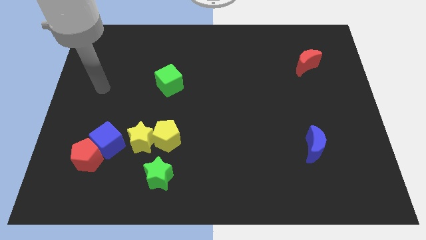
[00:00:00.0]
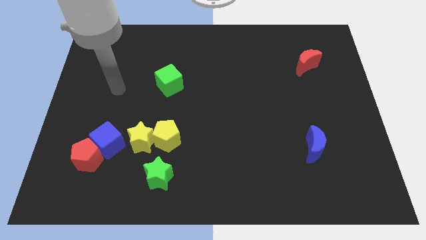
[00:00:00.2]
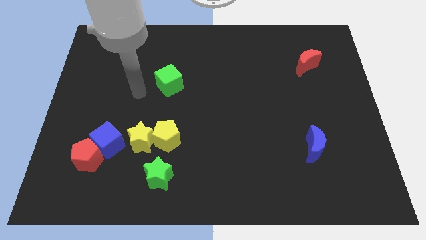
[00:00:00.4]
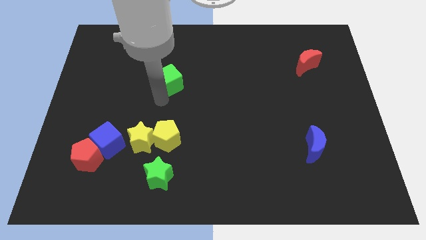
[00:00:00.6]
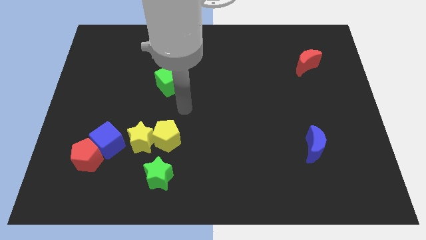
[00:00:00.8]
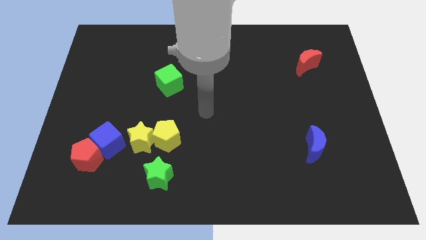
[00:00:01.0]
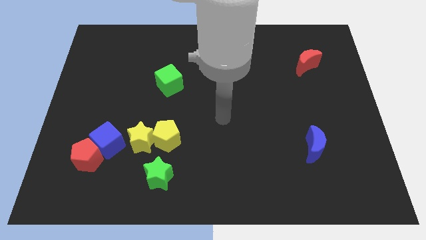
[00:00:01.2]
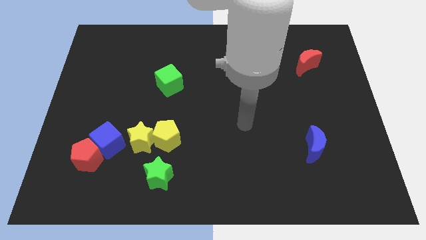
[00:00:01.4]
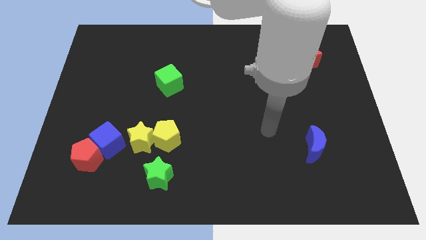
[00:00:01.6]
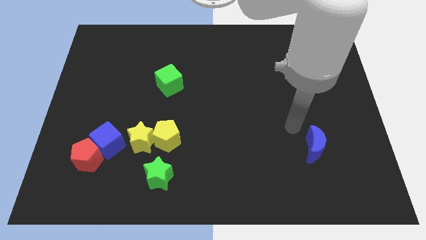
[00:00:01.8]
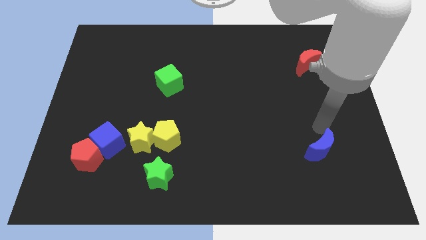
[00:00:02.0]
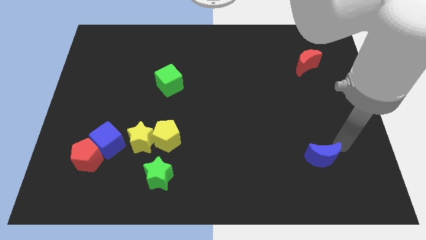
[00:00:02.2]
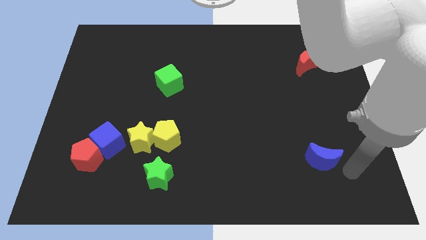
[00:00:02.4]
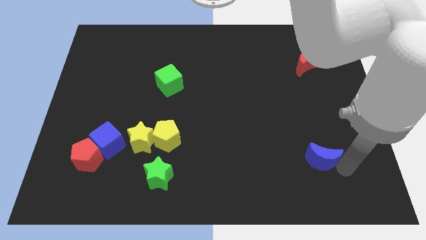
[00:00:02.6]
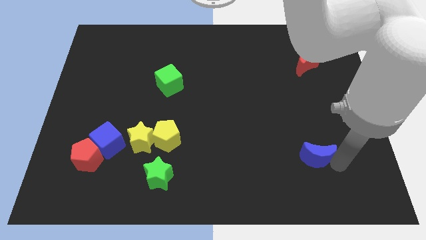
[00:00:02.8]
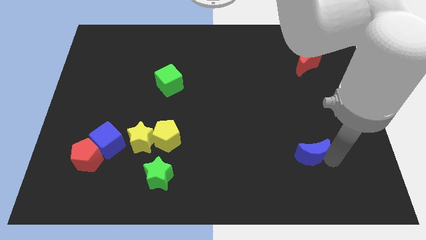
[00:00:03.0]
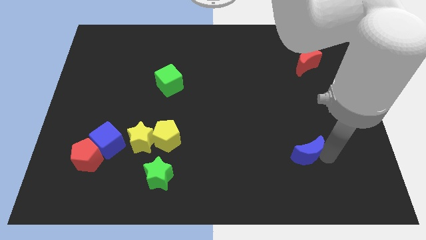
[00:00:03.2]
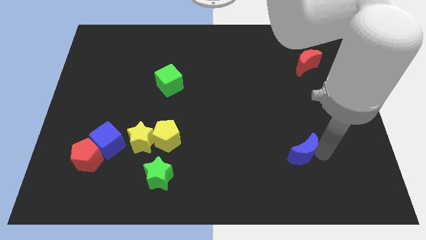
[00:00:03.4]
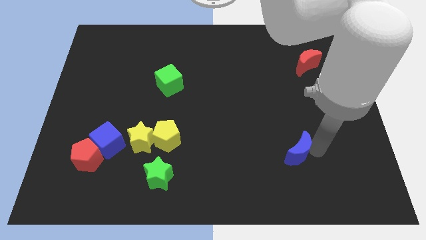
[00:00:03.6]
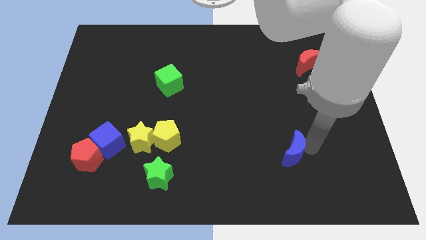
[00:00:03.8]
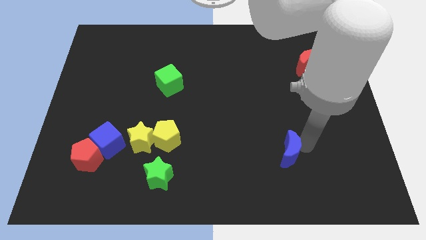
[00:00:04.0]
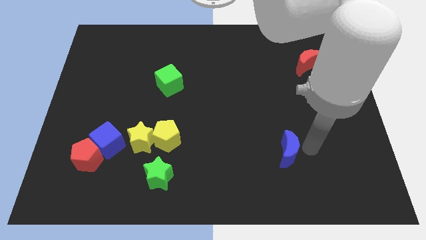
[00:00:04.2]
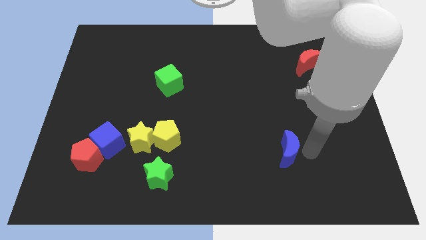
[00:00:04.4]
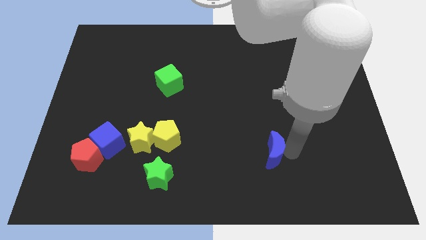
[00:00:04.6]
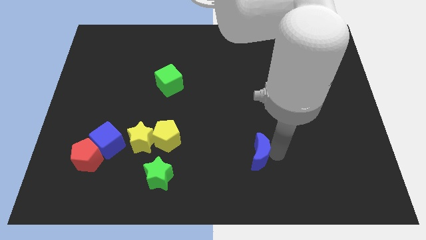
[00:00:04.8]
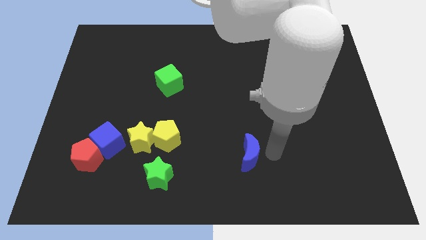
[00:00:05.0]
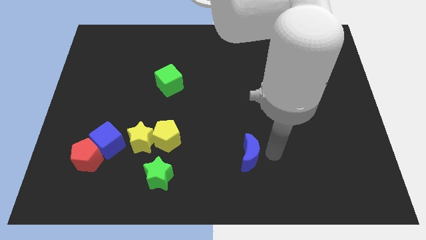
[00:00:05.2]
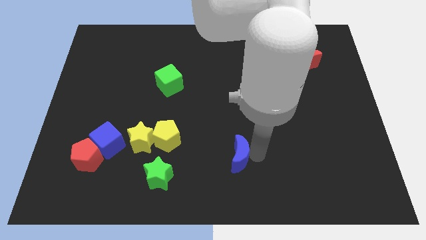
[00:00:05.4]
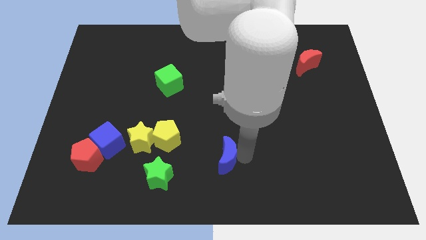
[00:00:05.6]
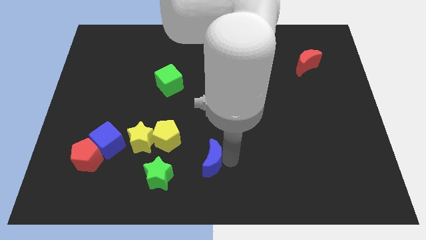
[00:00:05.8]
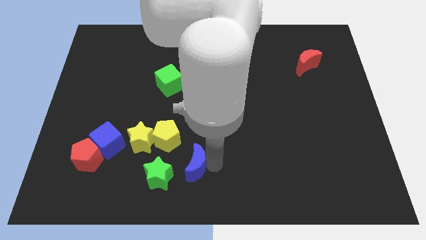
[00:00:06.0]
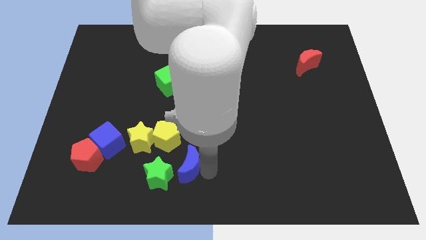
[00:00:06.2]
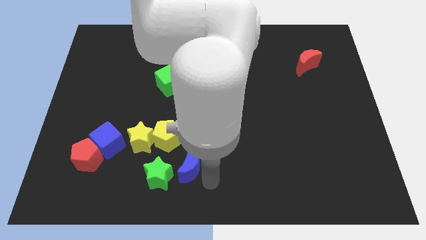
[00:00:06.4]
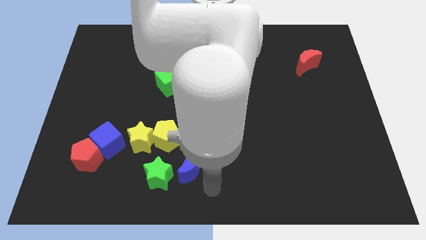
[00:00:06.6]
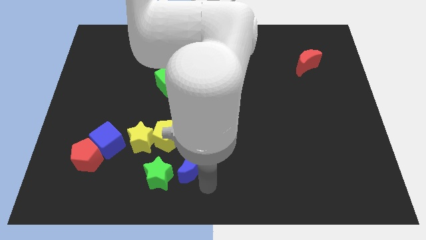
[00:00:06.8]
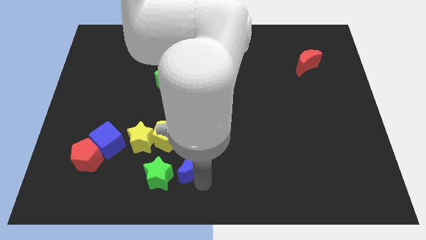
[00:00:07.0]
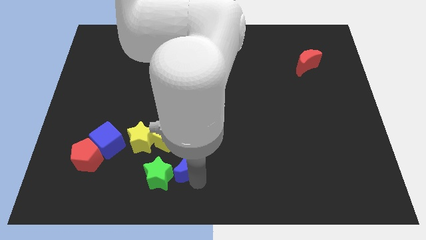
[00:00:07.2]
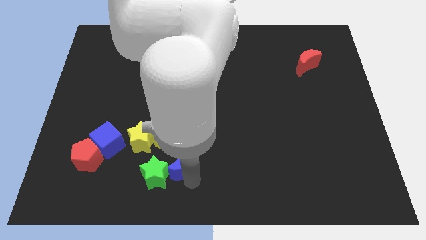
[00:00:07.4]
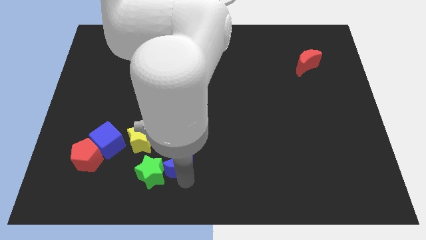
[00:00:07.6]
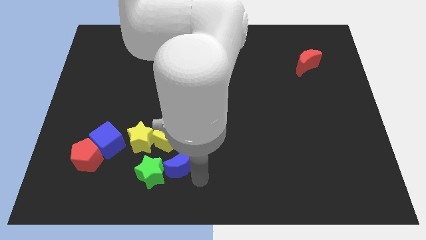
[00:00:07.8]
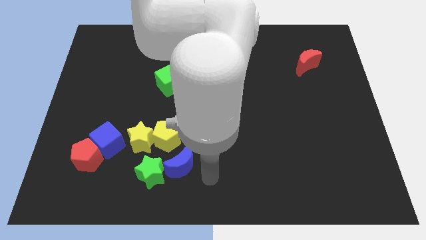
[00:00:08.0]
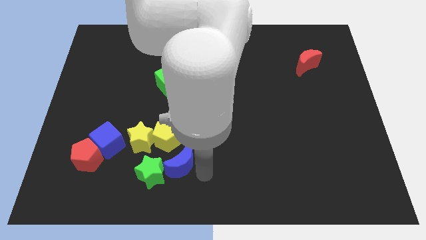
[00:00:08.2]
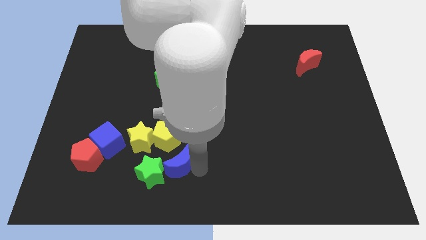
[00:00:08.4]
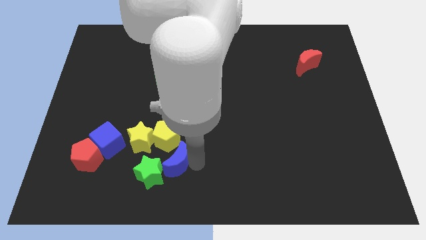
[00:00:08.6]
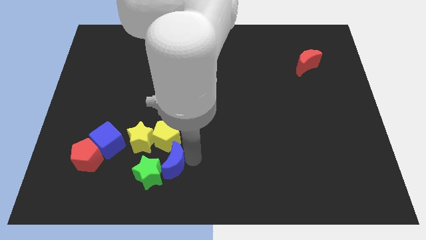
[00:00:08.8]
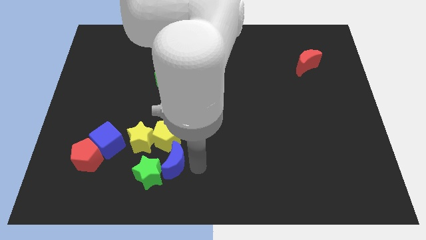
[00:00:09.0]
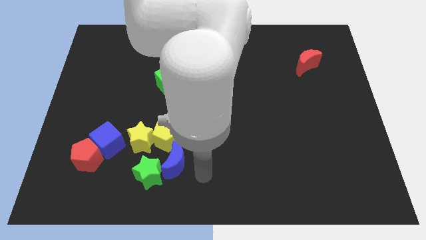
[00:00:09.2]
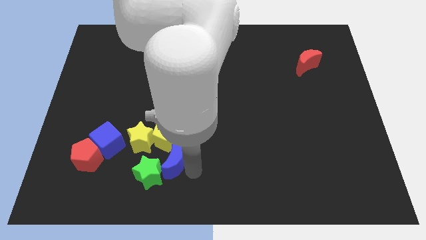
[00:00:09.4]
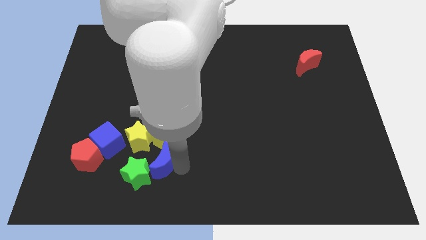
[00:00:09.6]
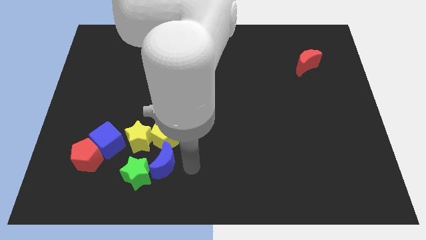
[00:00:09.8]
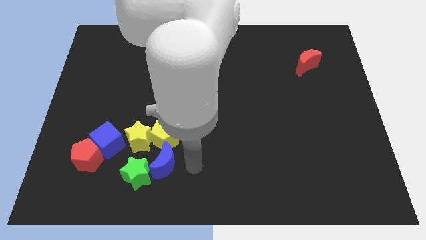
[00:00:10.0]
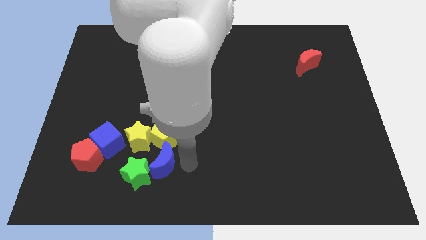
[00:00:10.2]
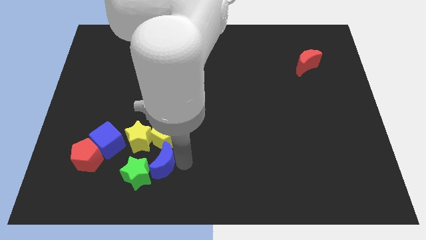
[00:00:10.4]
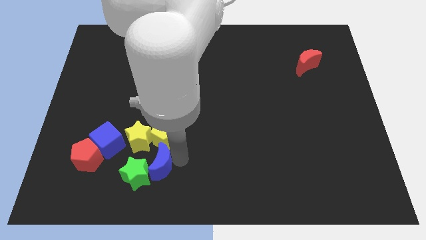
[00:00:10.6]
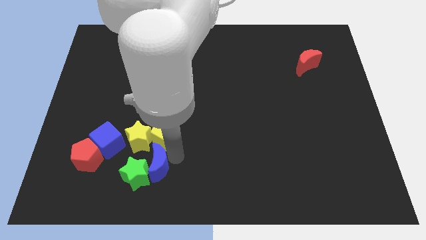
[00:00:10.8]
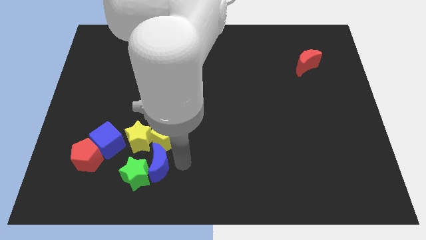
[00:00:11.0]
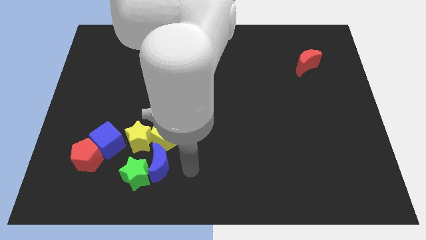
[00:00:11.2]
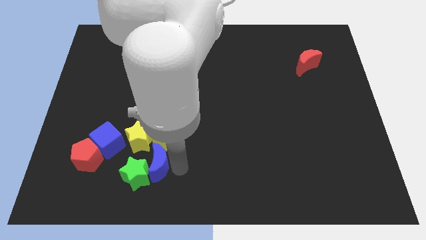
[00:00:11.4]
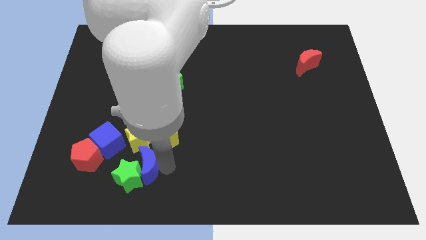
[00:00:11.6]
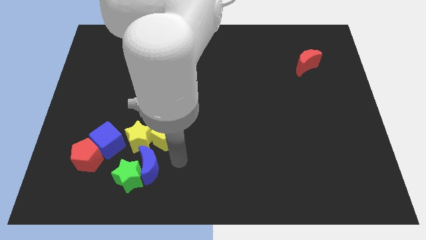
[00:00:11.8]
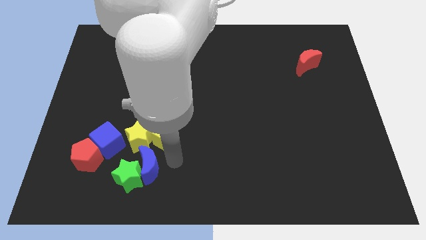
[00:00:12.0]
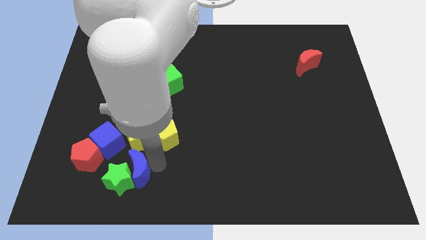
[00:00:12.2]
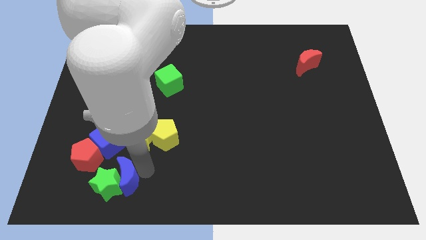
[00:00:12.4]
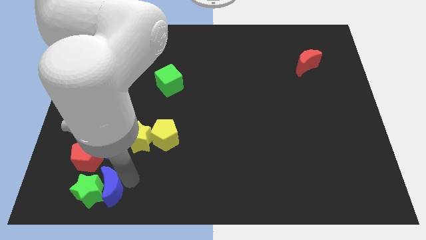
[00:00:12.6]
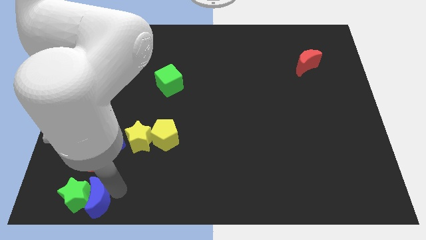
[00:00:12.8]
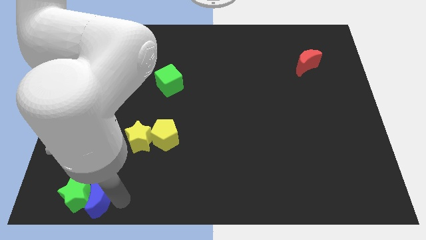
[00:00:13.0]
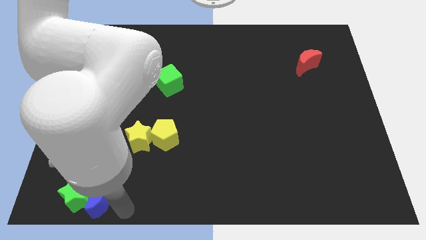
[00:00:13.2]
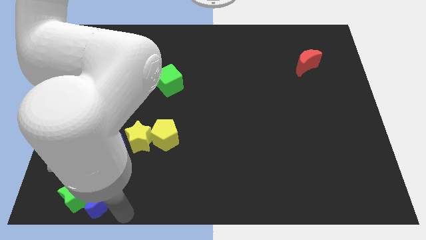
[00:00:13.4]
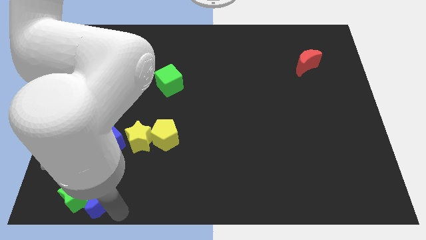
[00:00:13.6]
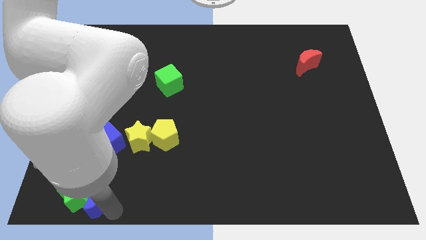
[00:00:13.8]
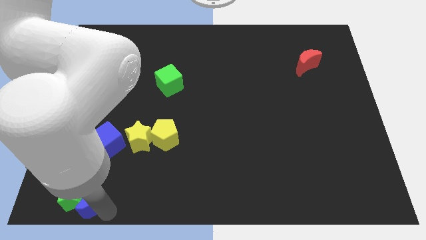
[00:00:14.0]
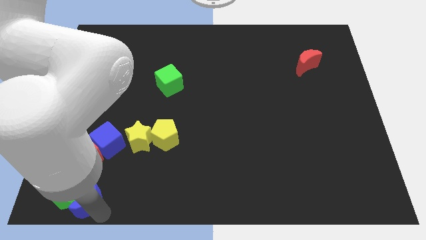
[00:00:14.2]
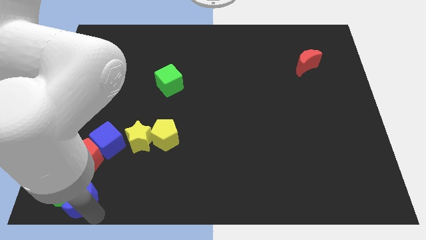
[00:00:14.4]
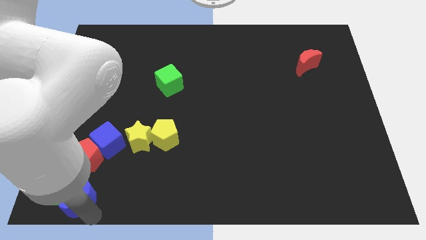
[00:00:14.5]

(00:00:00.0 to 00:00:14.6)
move the blue moon to the bottom left corner
